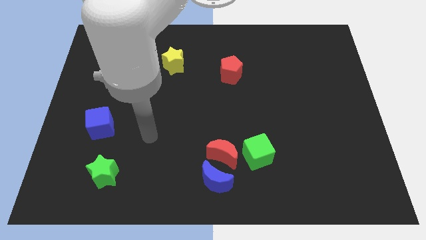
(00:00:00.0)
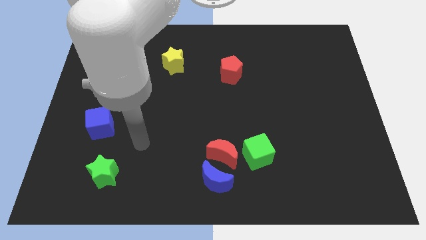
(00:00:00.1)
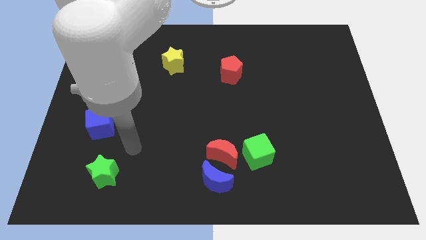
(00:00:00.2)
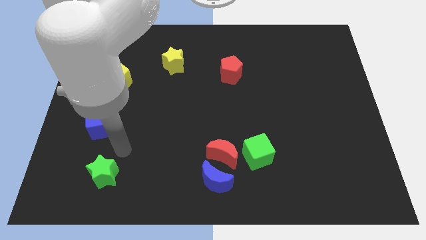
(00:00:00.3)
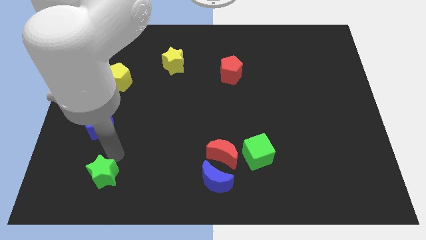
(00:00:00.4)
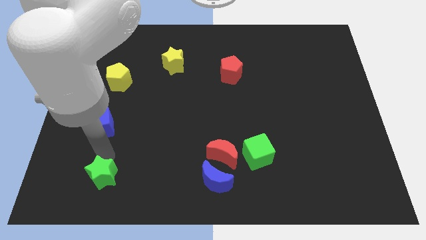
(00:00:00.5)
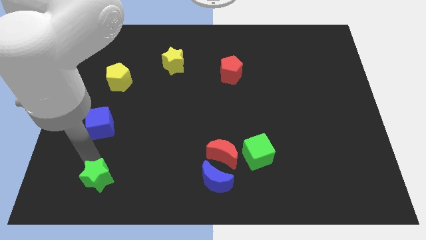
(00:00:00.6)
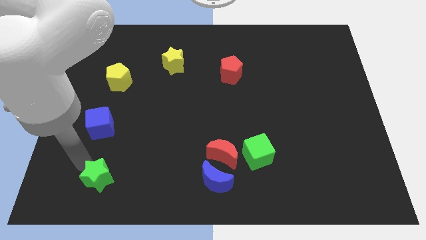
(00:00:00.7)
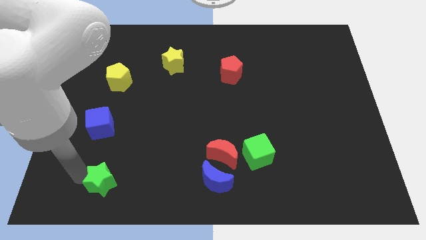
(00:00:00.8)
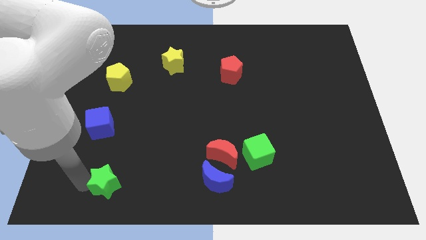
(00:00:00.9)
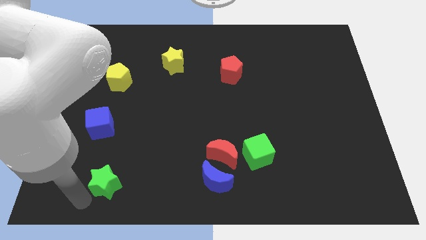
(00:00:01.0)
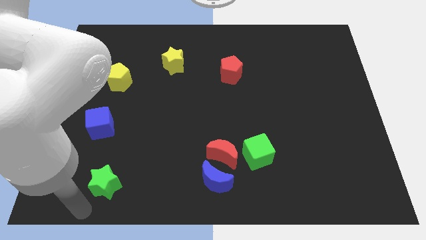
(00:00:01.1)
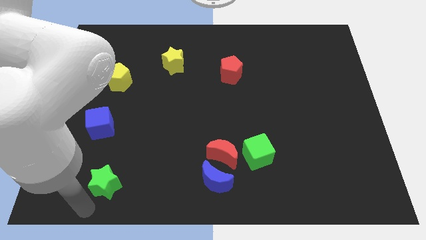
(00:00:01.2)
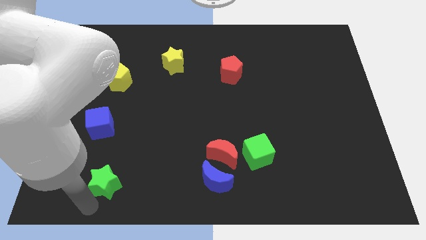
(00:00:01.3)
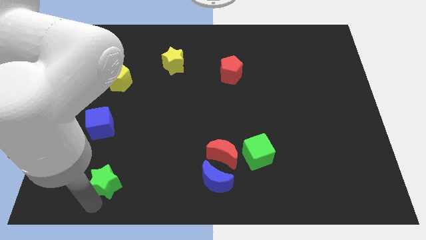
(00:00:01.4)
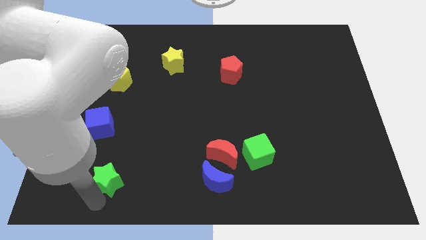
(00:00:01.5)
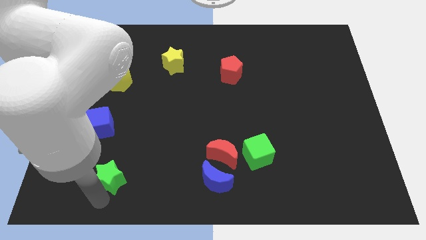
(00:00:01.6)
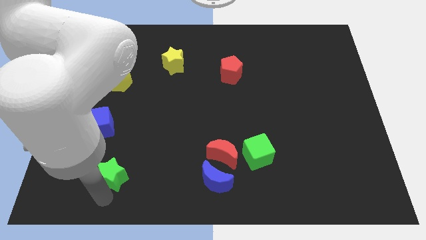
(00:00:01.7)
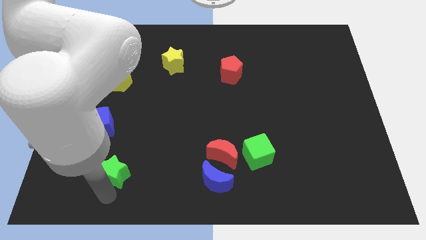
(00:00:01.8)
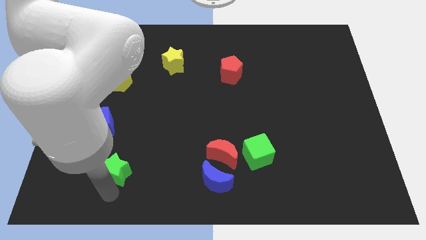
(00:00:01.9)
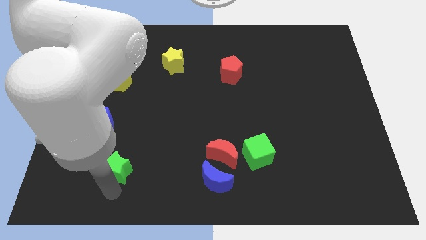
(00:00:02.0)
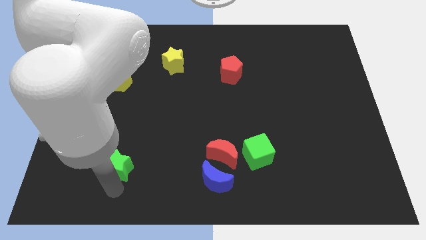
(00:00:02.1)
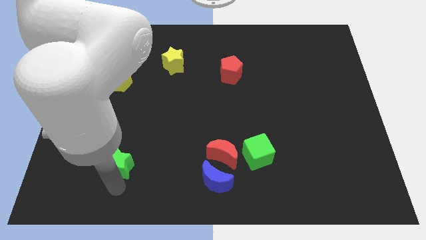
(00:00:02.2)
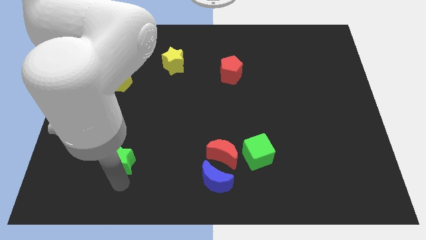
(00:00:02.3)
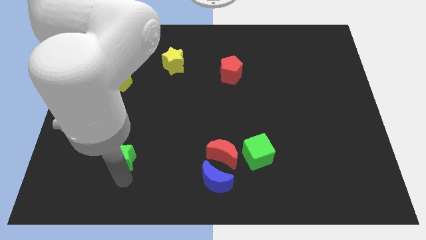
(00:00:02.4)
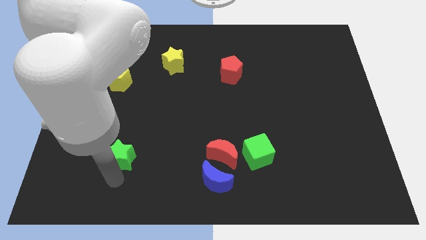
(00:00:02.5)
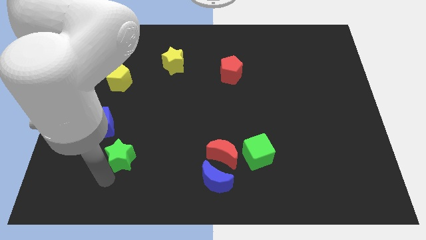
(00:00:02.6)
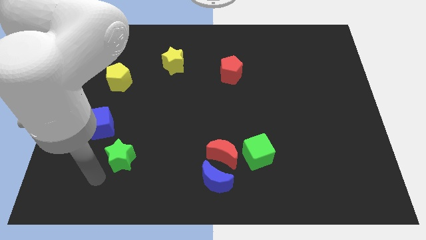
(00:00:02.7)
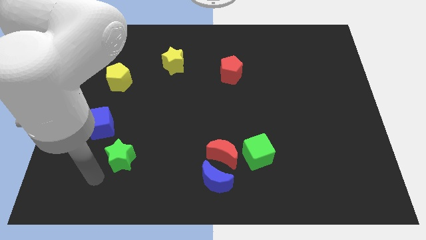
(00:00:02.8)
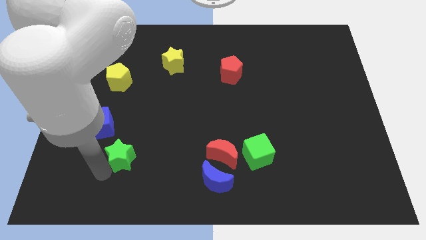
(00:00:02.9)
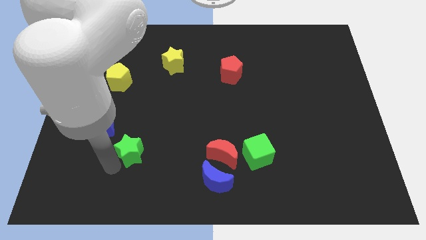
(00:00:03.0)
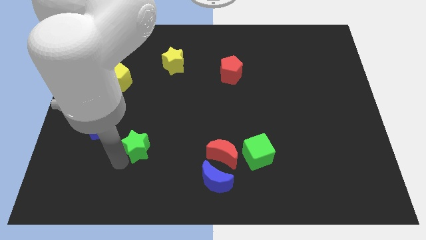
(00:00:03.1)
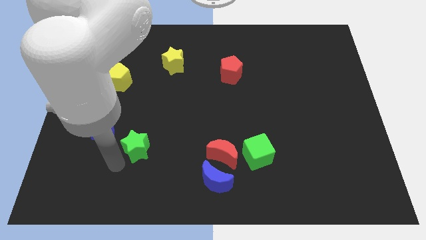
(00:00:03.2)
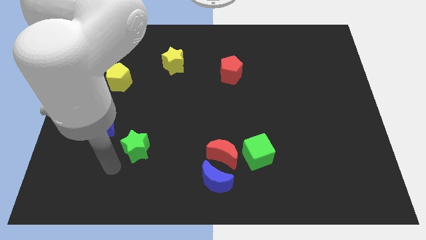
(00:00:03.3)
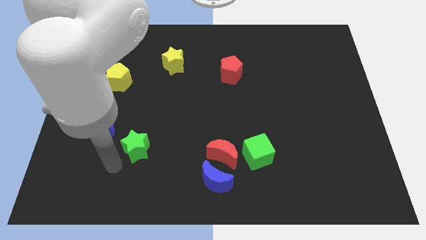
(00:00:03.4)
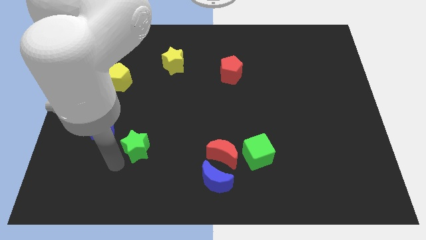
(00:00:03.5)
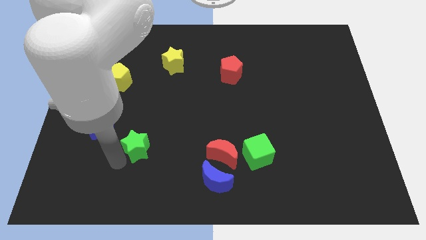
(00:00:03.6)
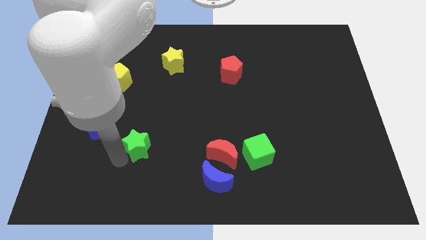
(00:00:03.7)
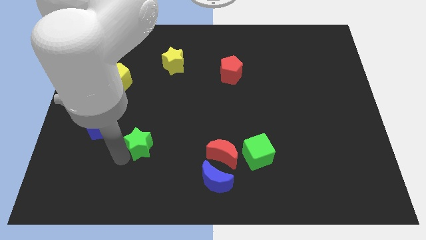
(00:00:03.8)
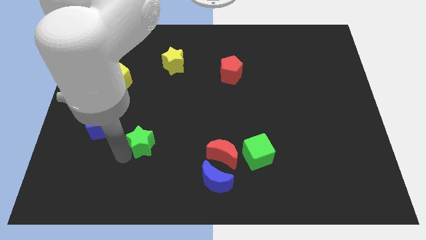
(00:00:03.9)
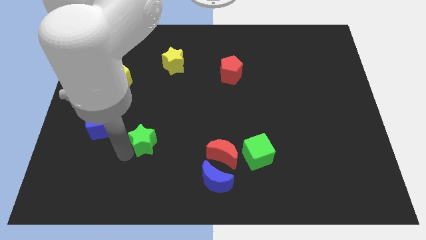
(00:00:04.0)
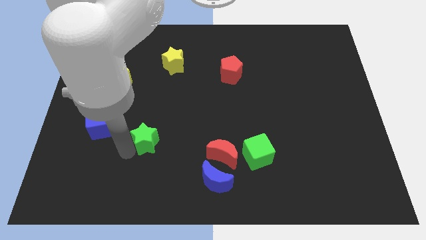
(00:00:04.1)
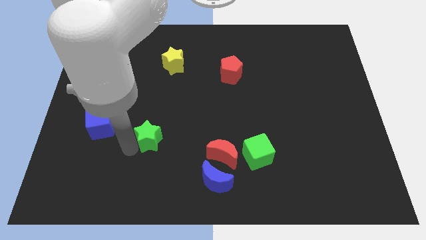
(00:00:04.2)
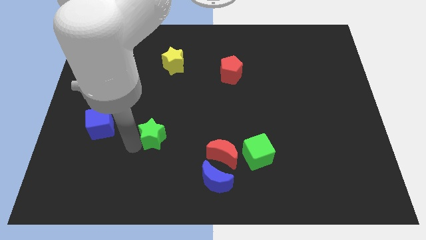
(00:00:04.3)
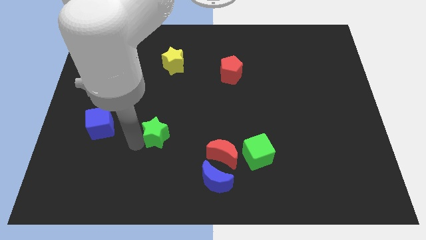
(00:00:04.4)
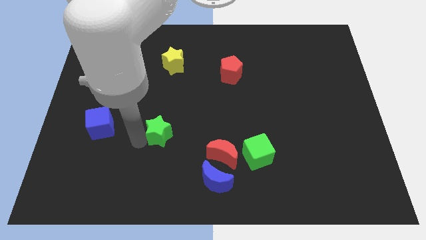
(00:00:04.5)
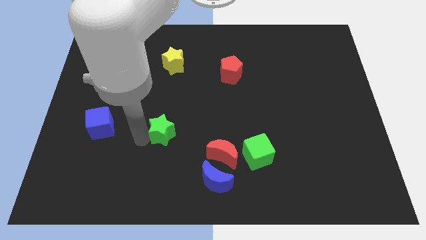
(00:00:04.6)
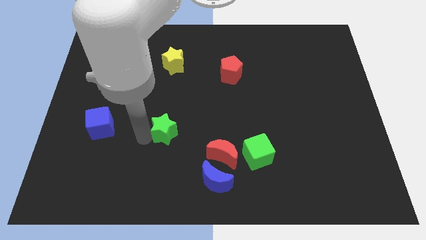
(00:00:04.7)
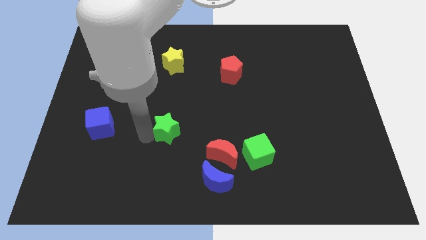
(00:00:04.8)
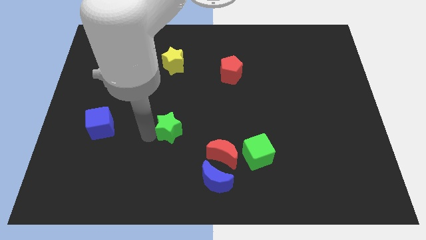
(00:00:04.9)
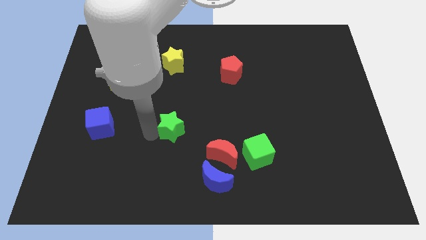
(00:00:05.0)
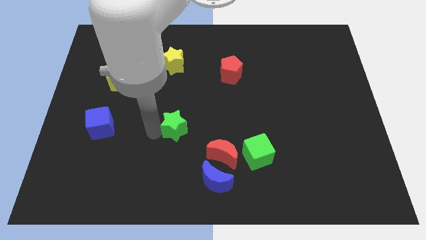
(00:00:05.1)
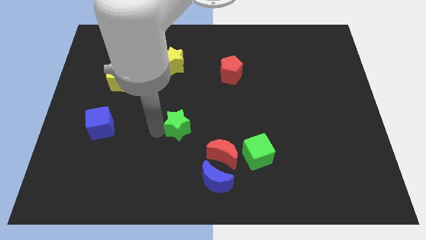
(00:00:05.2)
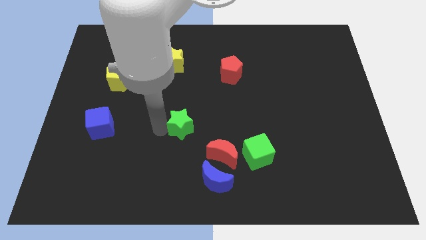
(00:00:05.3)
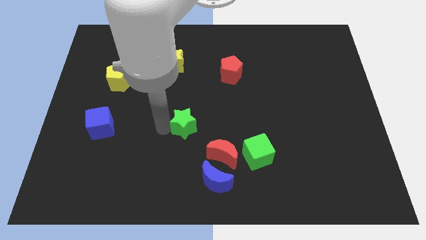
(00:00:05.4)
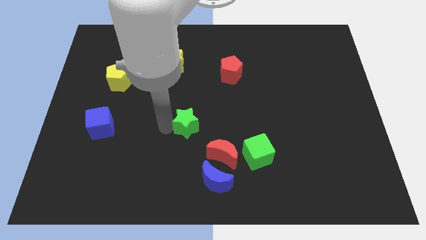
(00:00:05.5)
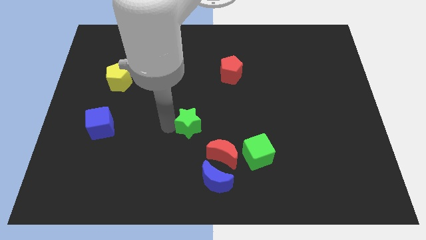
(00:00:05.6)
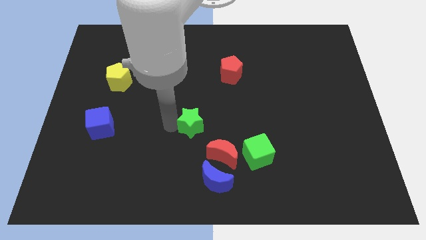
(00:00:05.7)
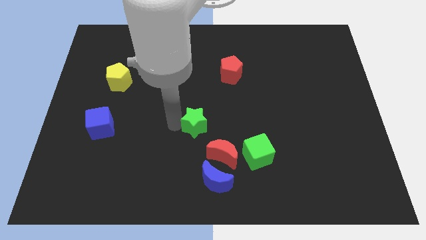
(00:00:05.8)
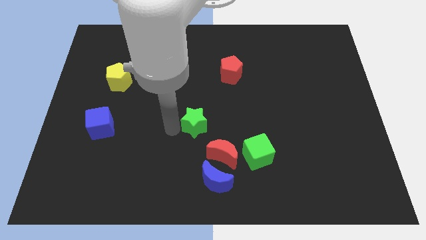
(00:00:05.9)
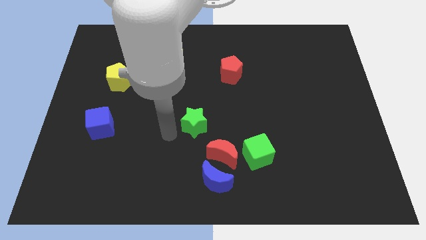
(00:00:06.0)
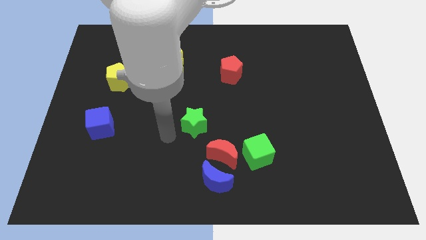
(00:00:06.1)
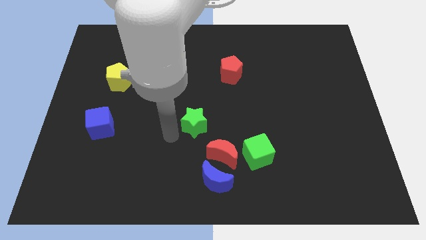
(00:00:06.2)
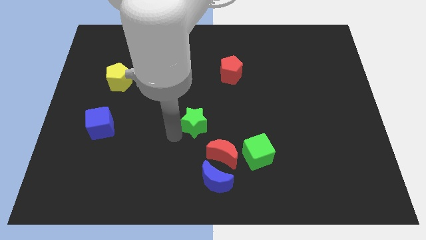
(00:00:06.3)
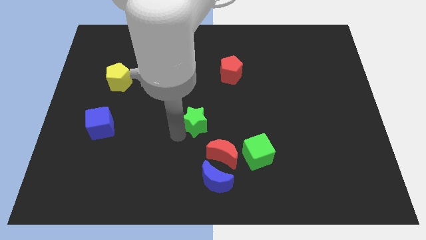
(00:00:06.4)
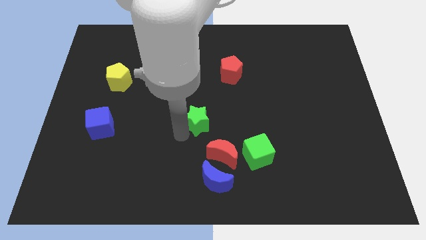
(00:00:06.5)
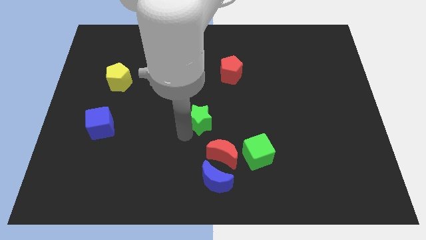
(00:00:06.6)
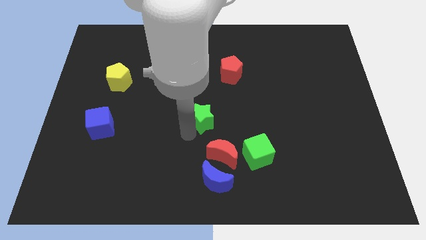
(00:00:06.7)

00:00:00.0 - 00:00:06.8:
push the green star above the red moon

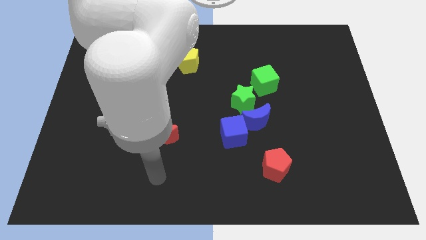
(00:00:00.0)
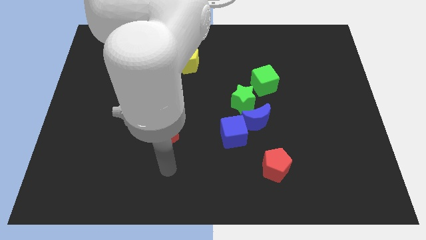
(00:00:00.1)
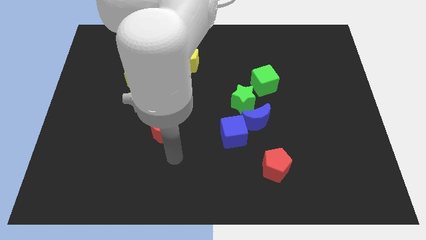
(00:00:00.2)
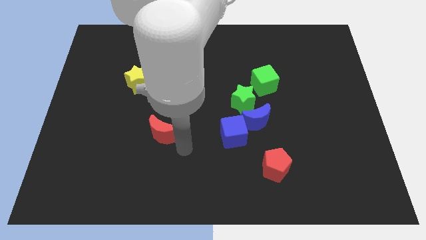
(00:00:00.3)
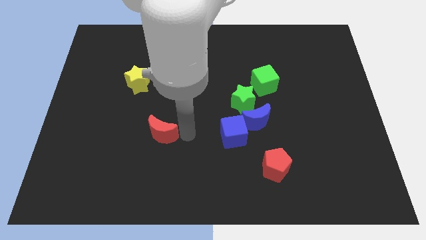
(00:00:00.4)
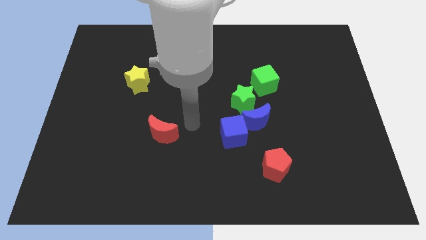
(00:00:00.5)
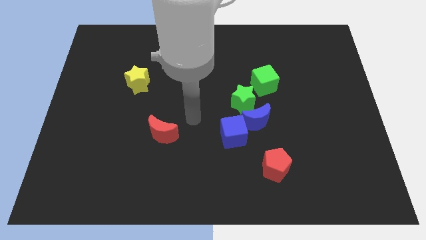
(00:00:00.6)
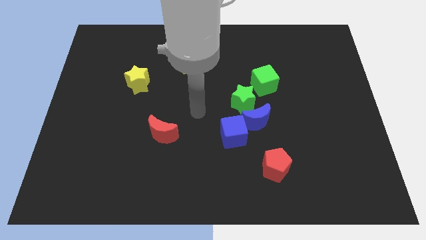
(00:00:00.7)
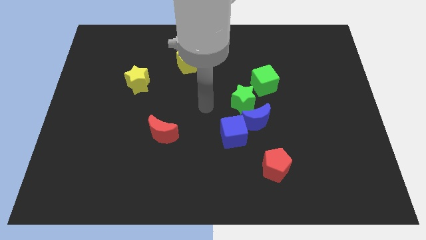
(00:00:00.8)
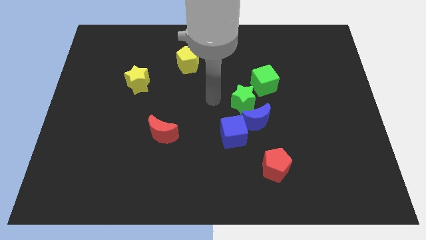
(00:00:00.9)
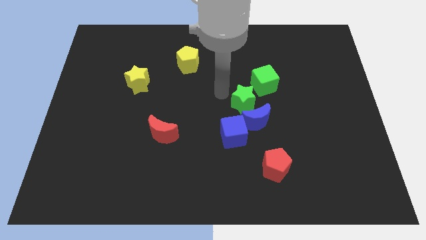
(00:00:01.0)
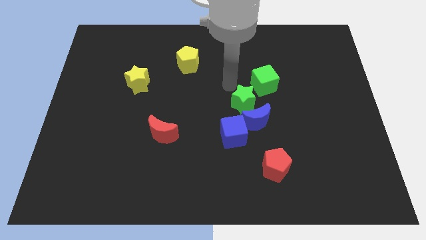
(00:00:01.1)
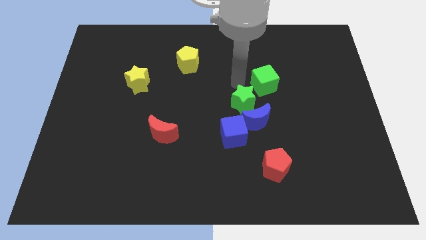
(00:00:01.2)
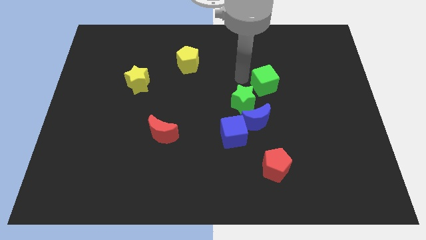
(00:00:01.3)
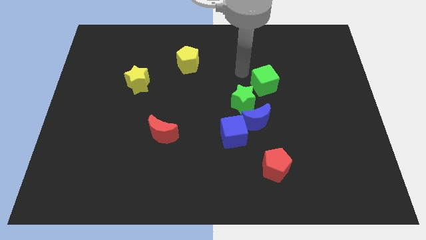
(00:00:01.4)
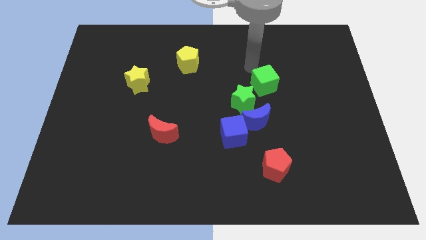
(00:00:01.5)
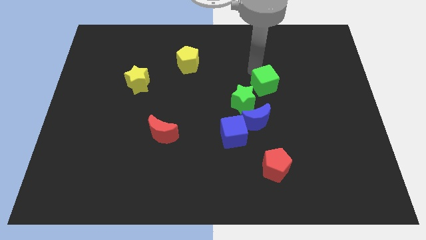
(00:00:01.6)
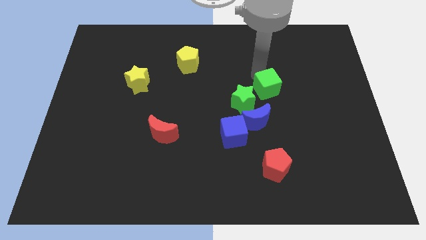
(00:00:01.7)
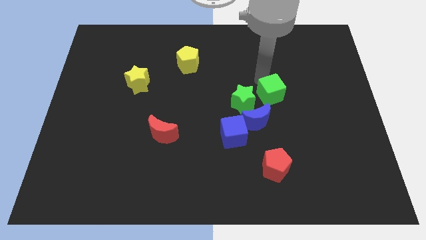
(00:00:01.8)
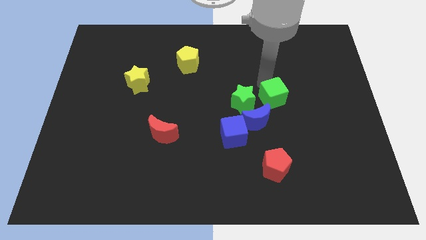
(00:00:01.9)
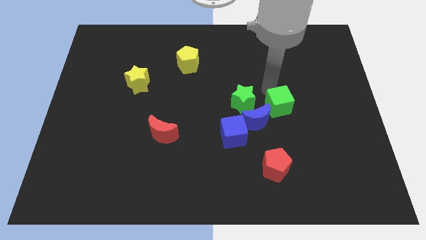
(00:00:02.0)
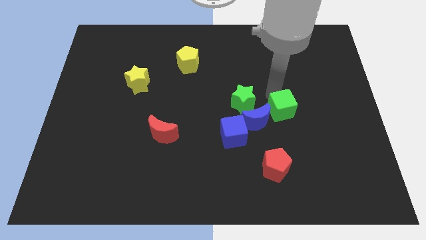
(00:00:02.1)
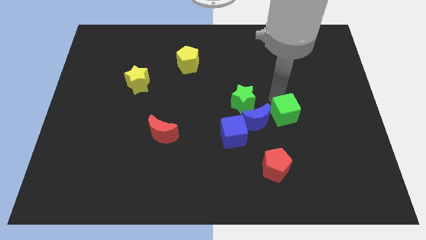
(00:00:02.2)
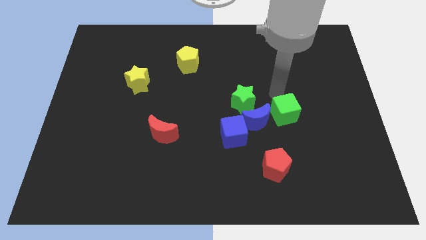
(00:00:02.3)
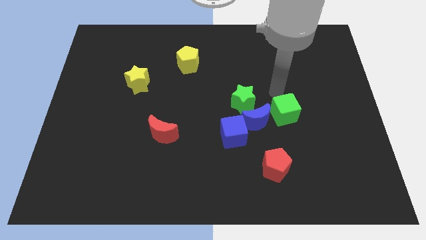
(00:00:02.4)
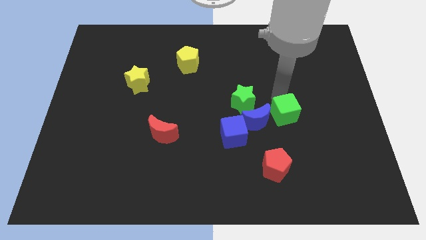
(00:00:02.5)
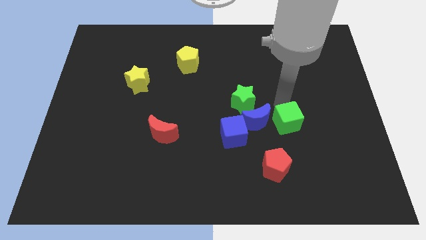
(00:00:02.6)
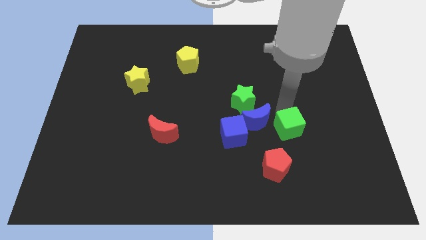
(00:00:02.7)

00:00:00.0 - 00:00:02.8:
put the green cube to the top right of the red pentagon
